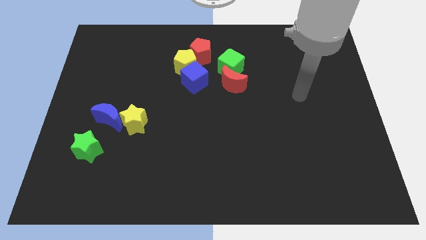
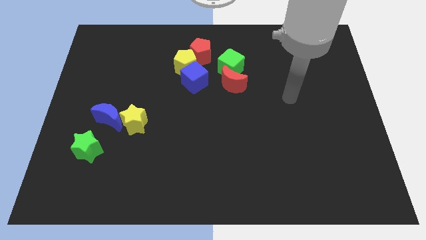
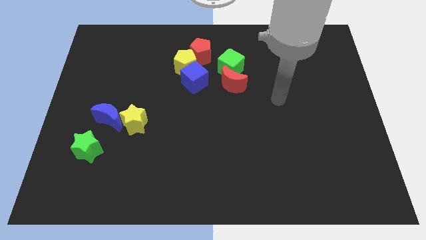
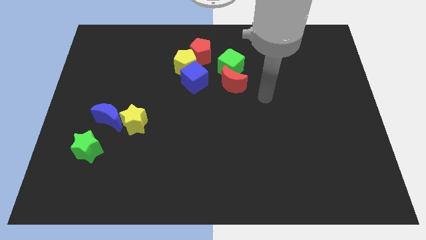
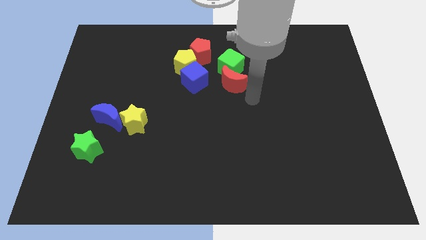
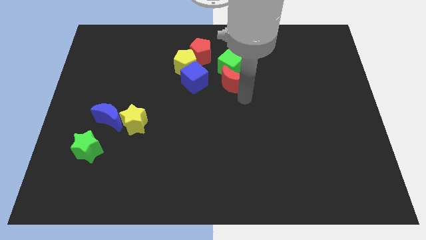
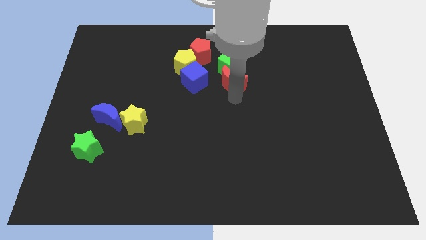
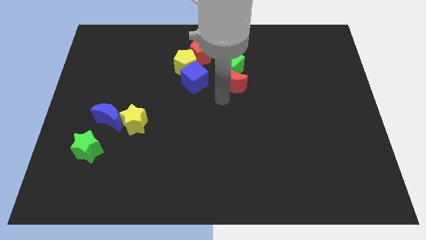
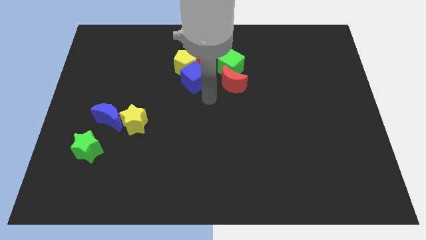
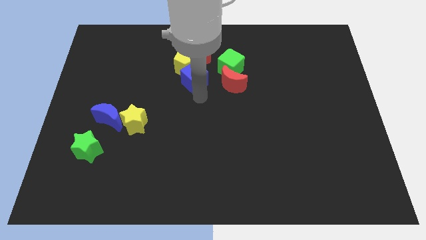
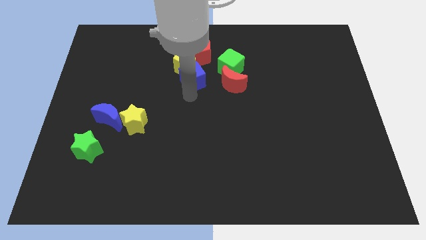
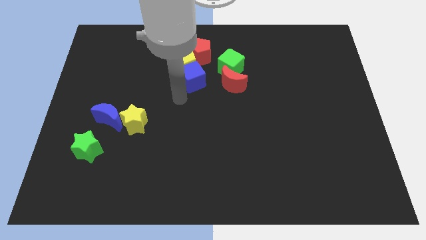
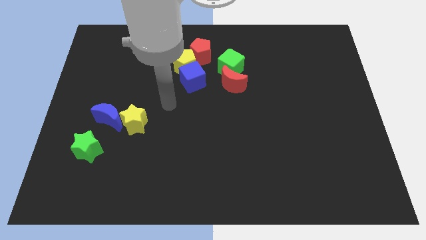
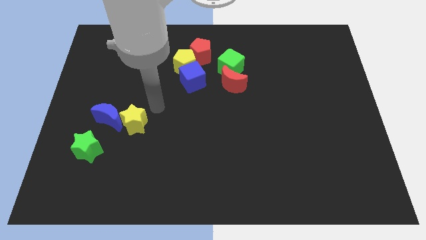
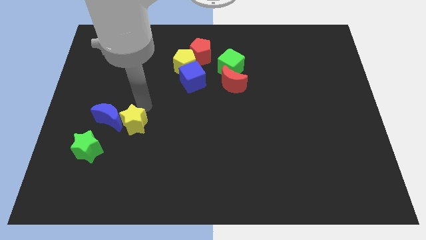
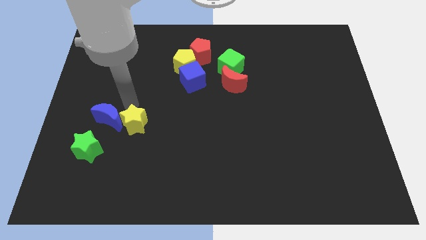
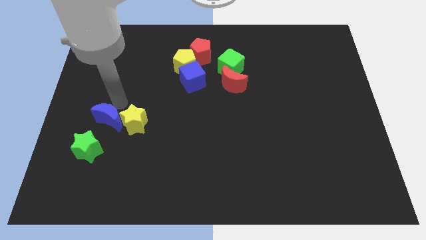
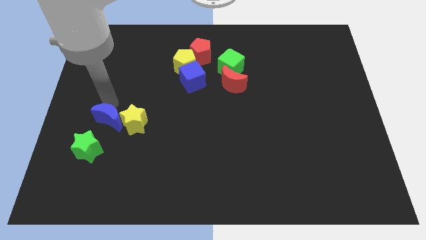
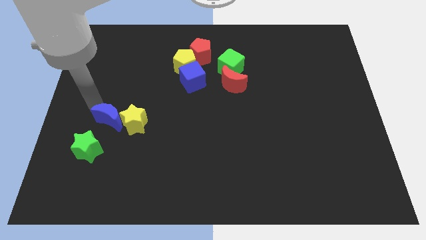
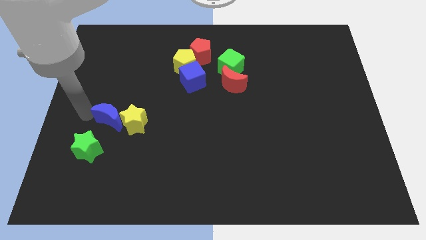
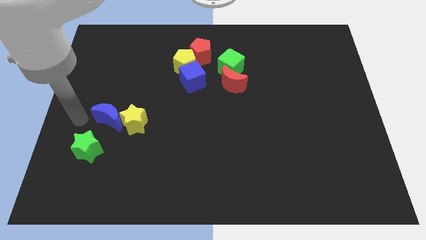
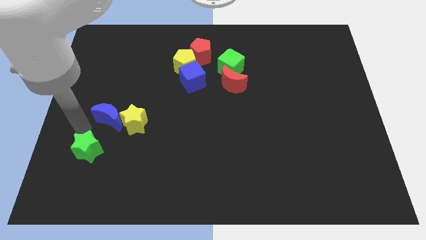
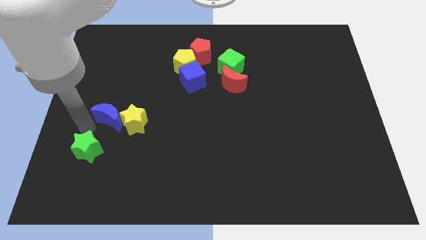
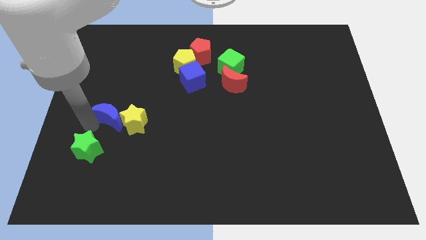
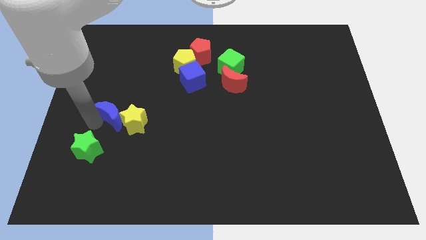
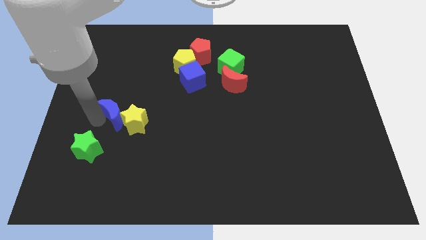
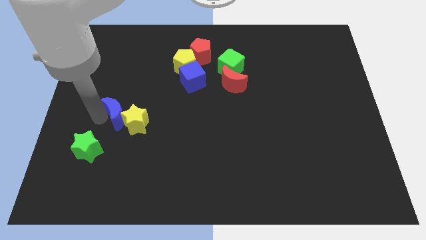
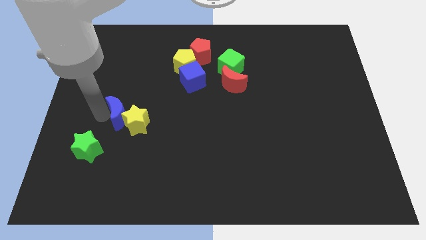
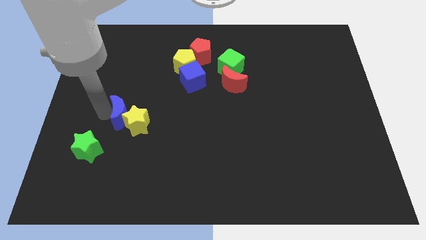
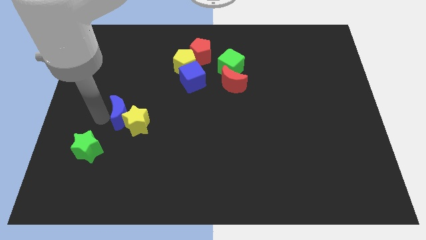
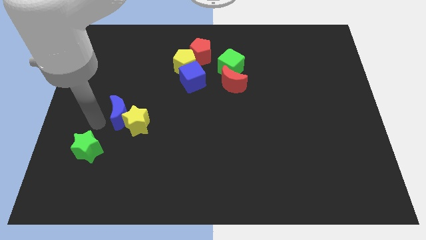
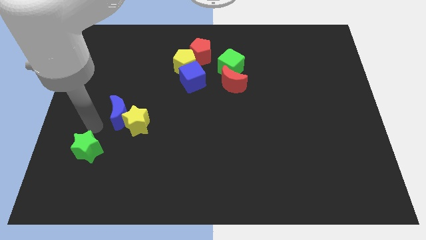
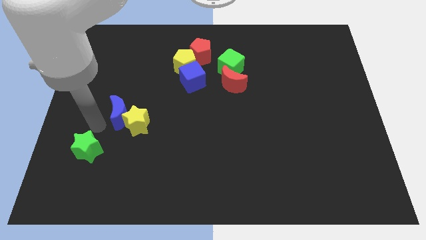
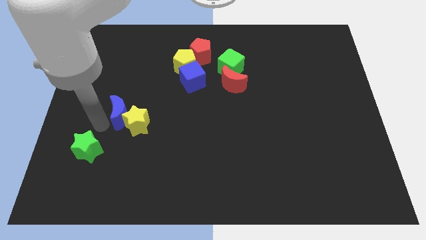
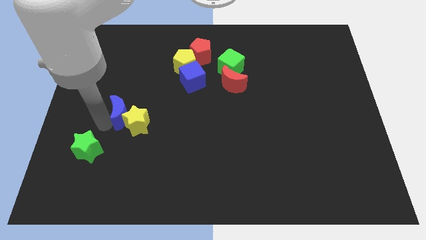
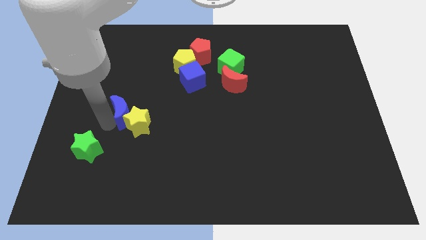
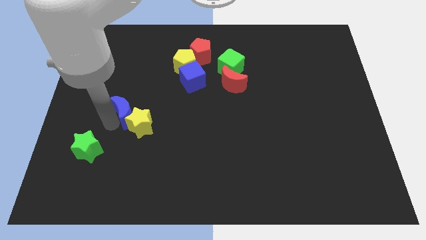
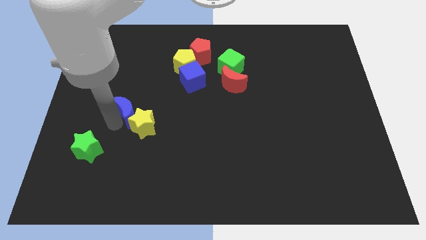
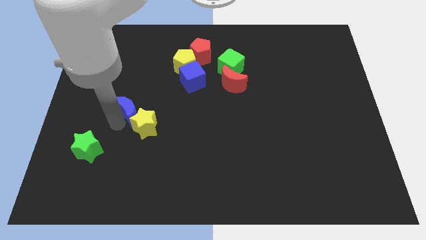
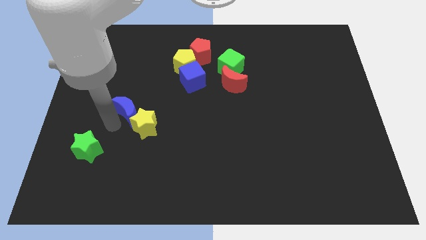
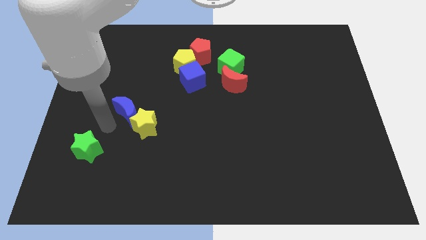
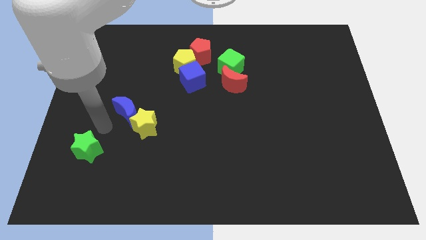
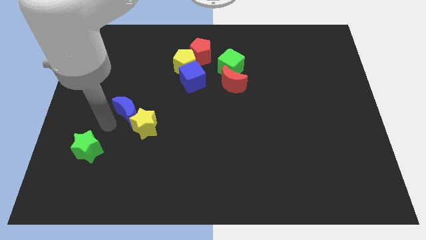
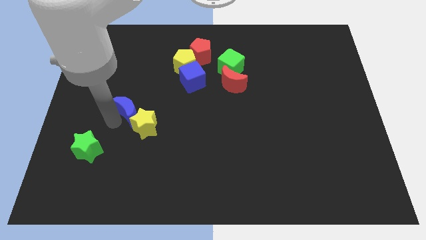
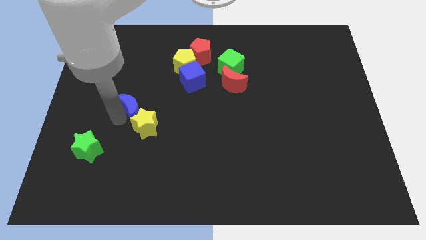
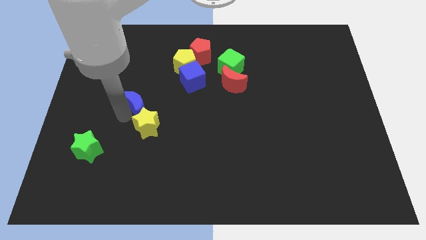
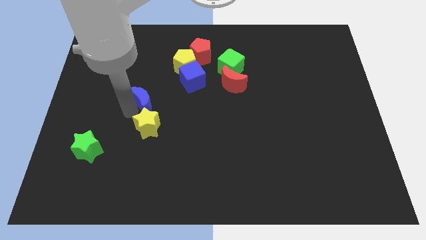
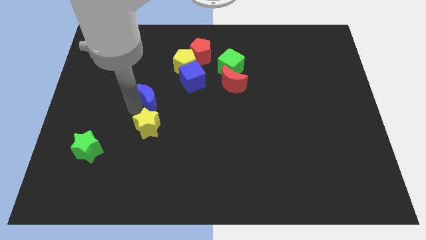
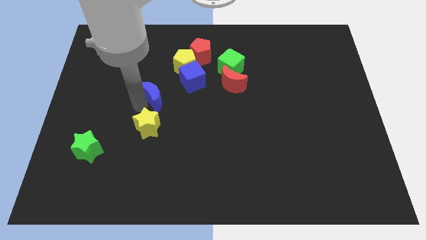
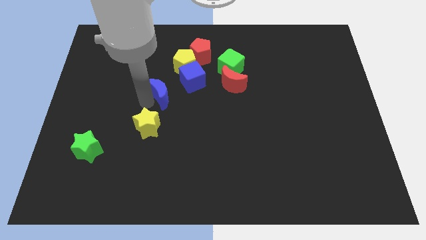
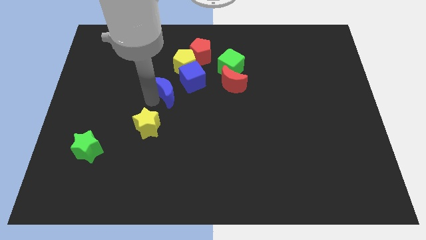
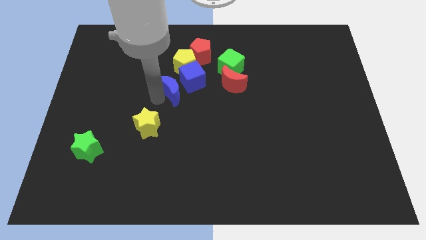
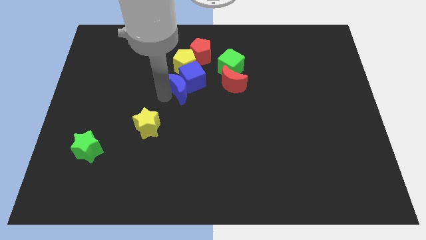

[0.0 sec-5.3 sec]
move the blue moon close to the blue cube

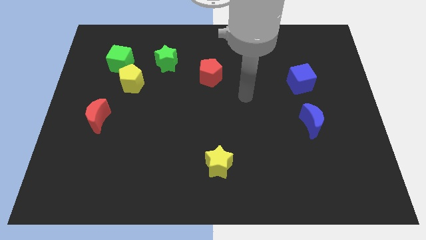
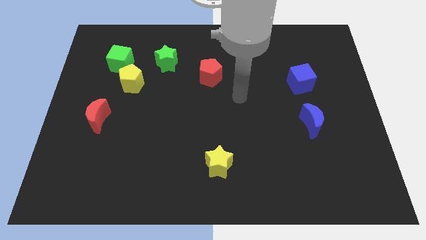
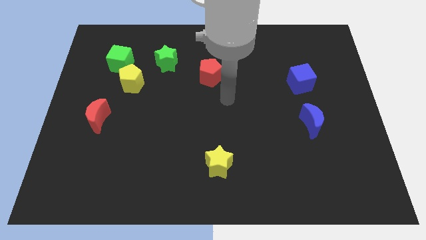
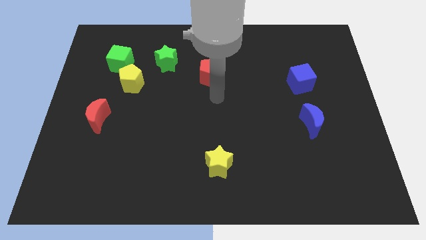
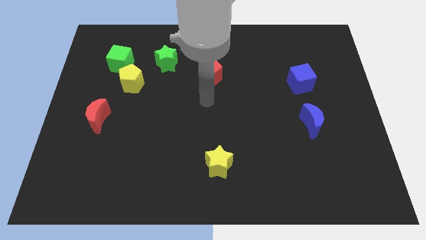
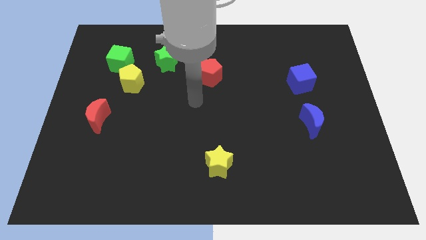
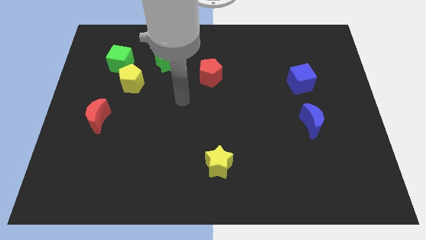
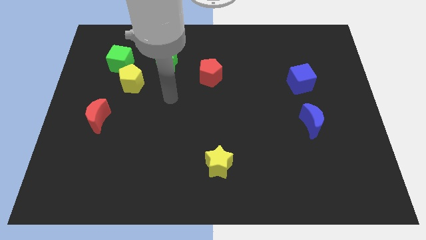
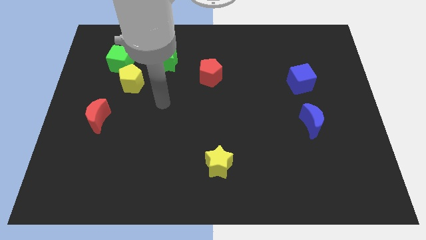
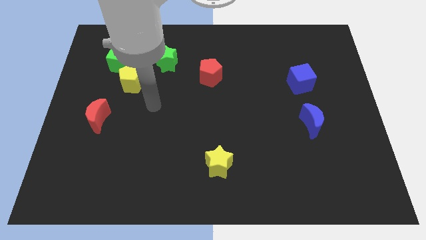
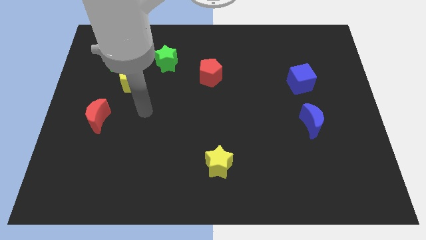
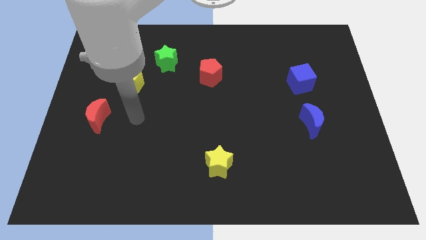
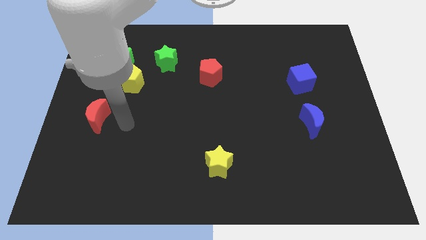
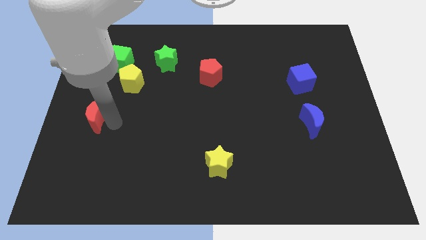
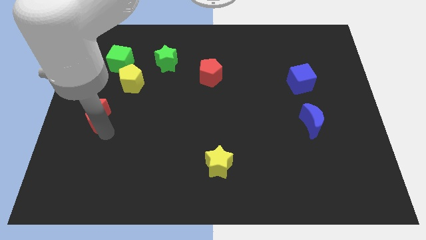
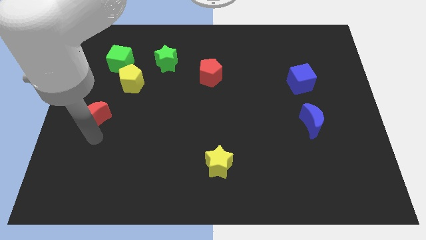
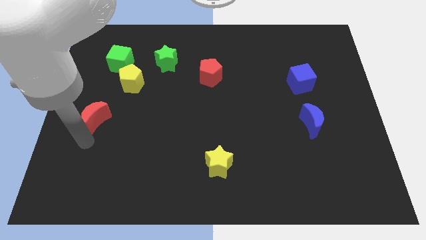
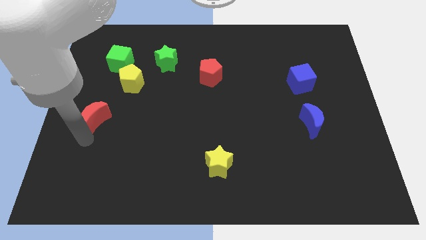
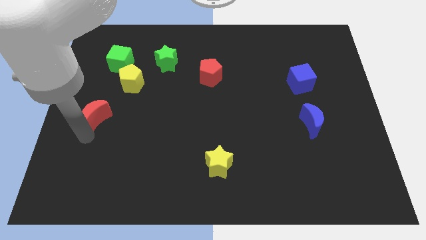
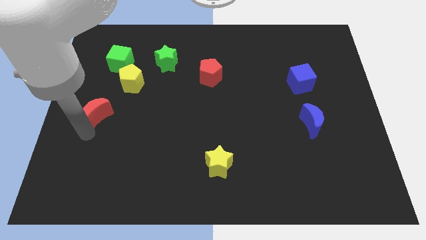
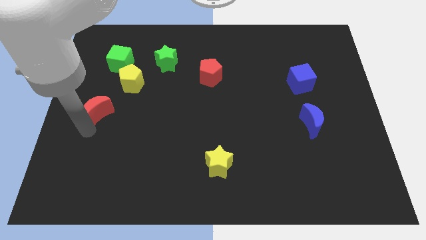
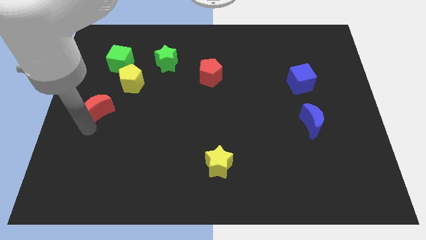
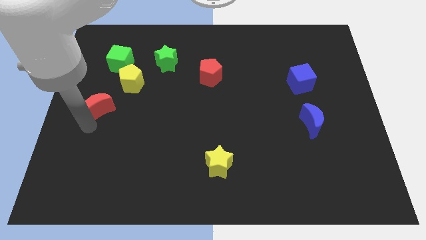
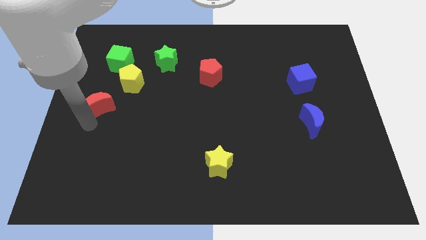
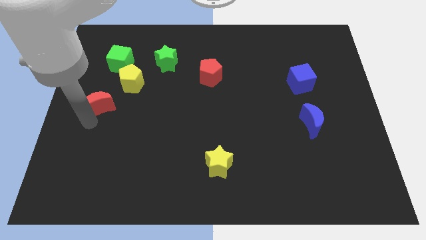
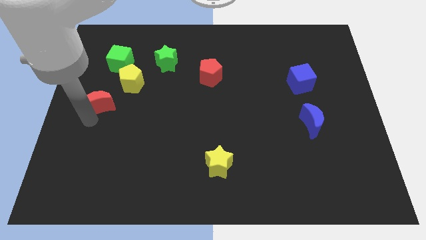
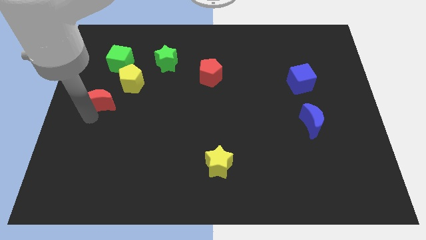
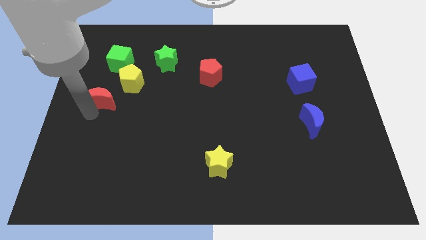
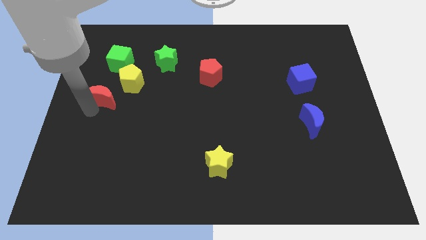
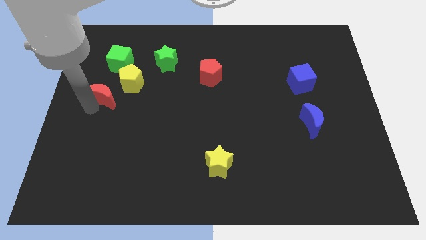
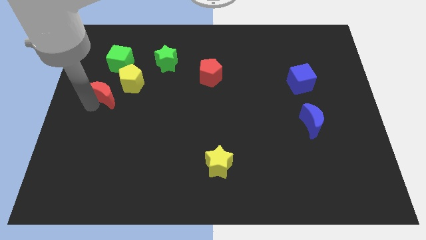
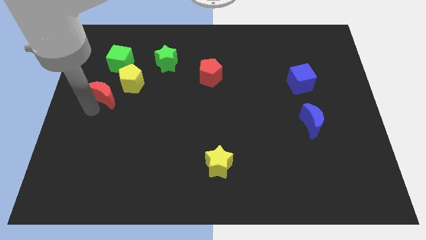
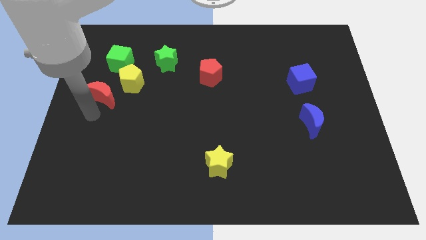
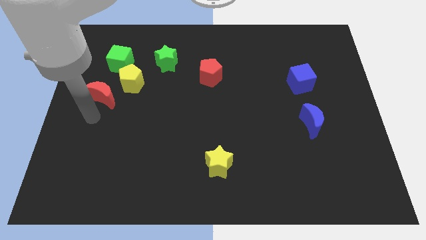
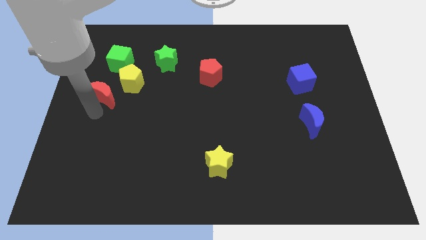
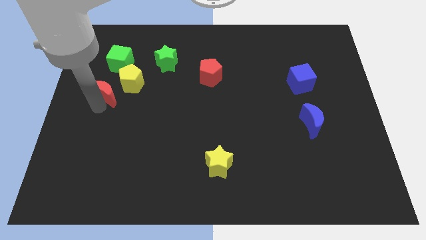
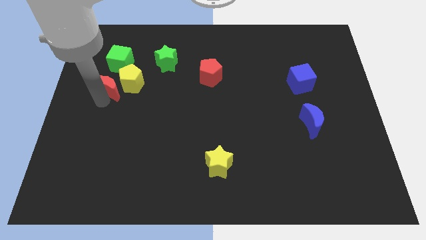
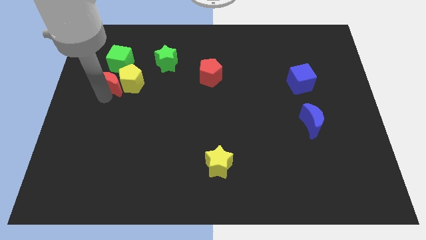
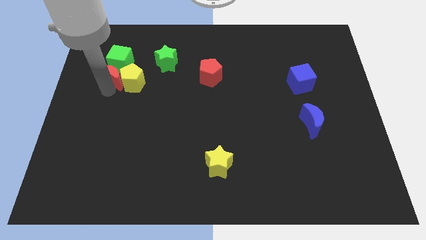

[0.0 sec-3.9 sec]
move the red moon close to the green cube
